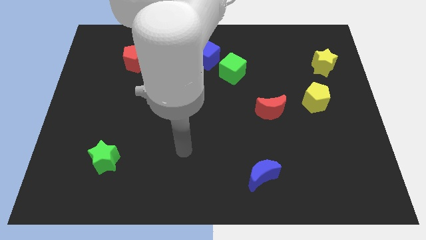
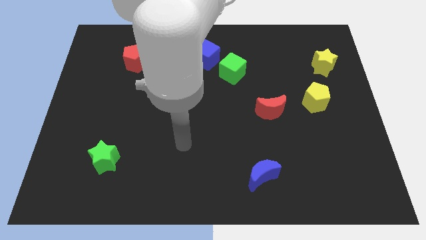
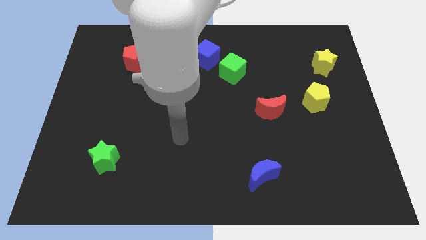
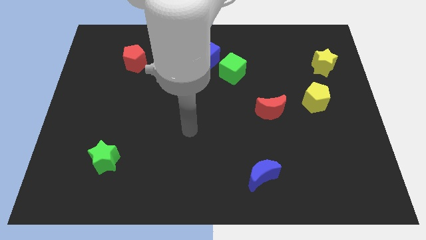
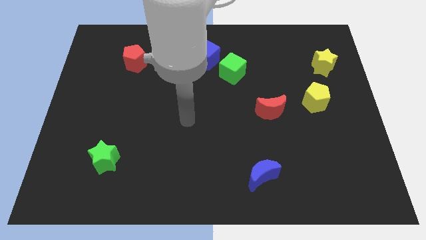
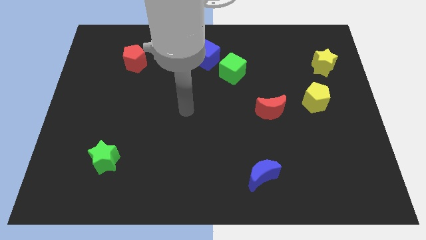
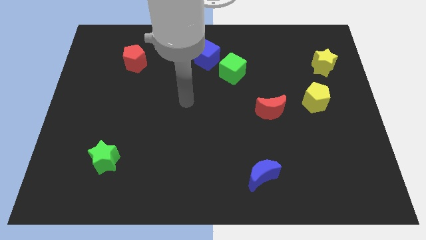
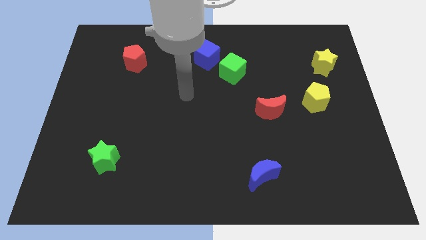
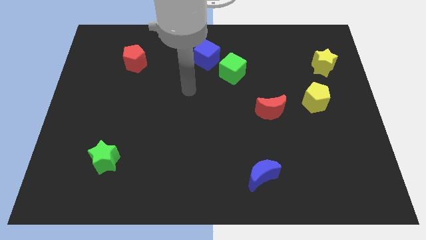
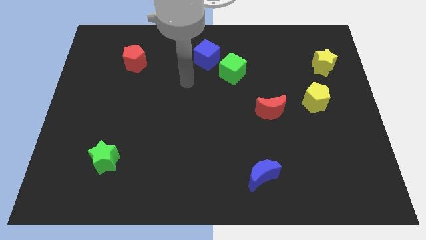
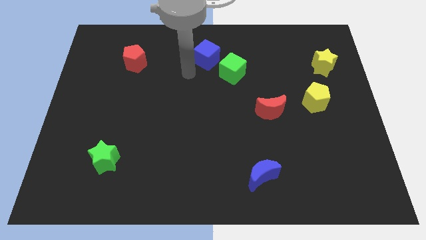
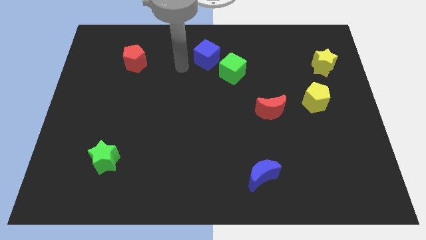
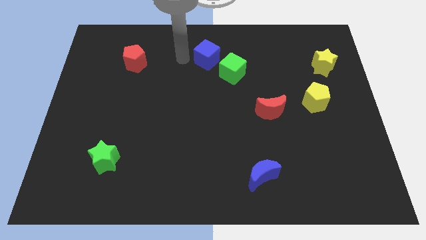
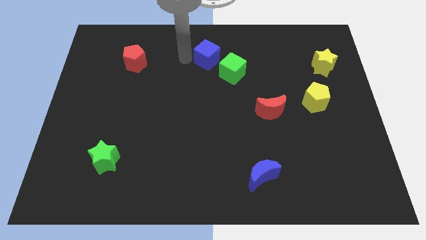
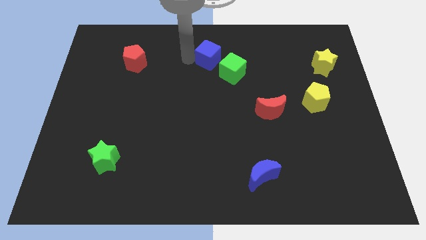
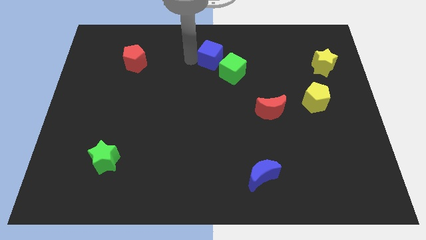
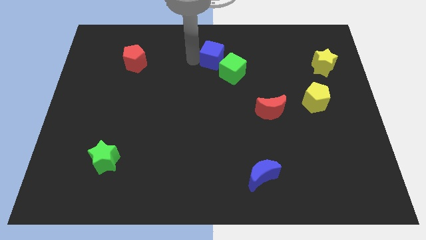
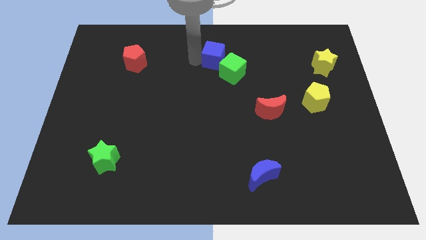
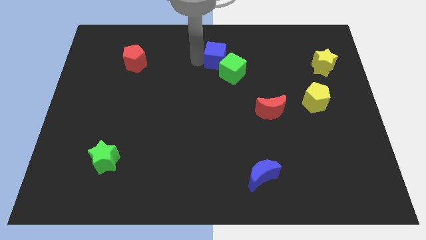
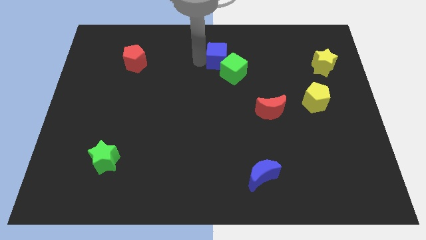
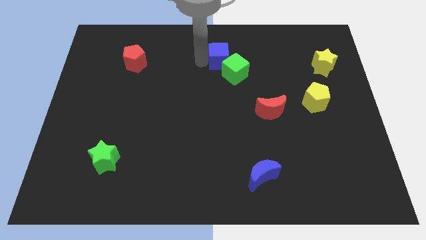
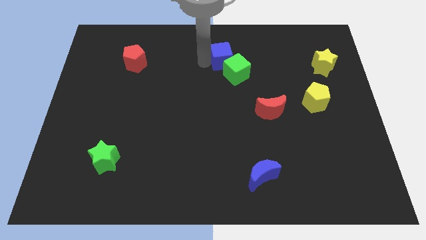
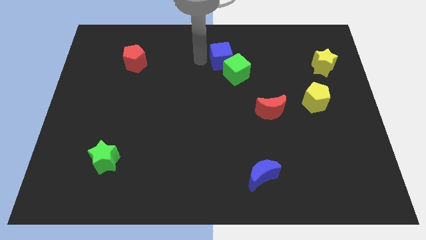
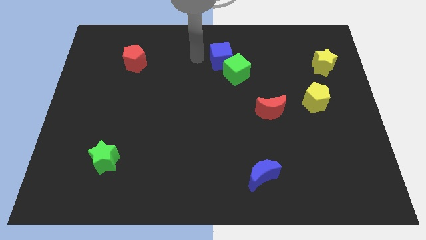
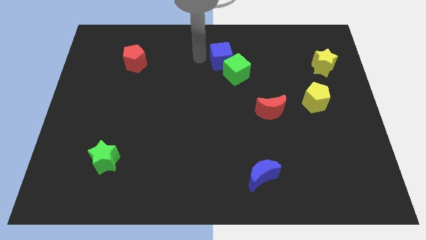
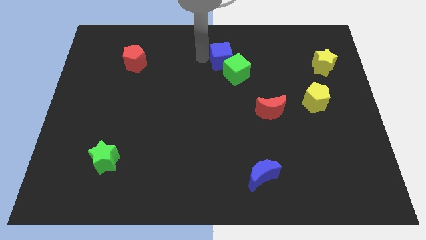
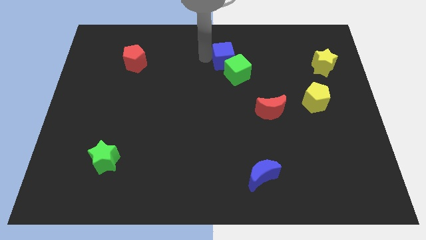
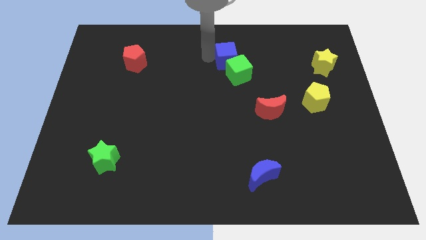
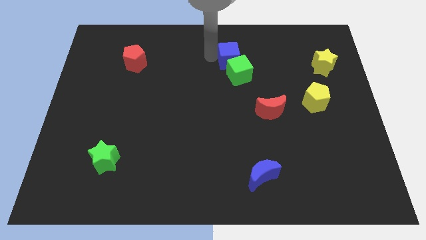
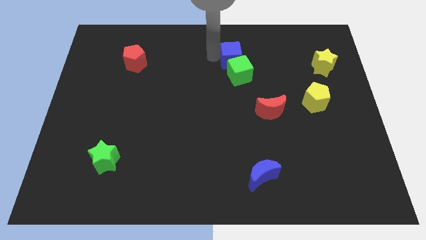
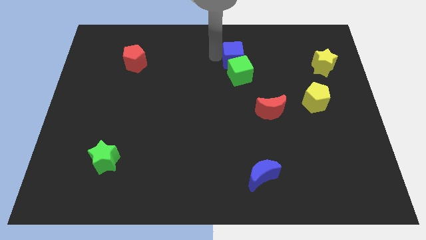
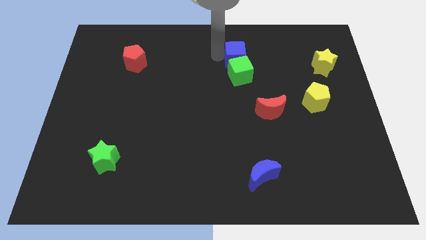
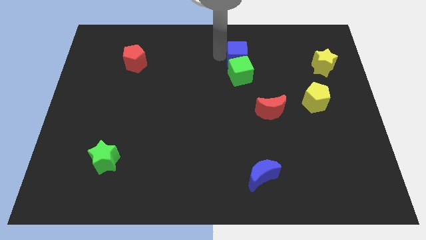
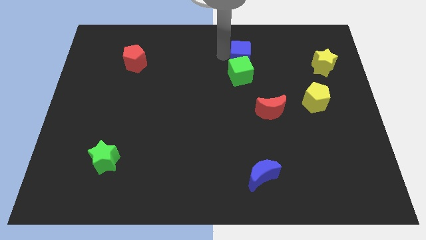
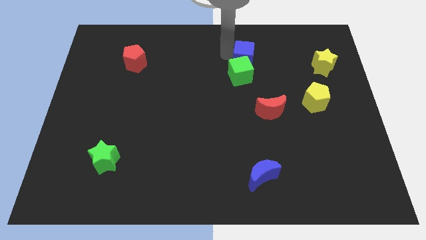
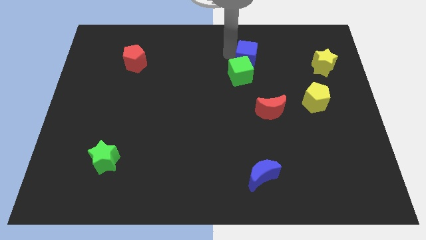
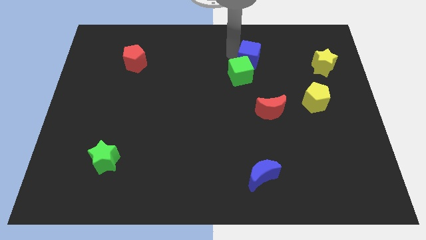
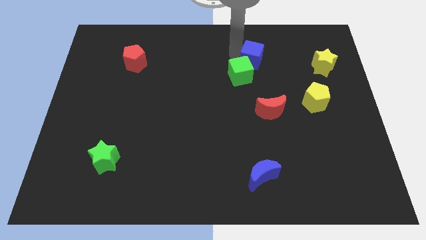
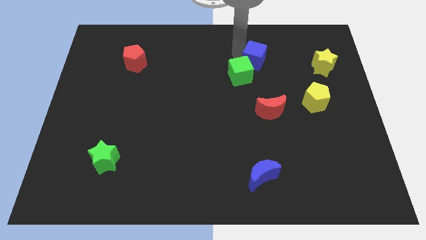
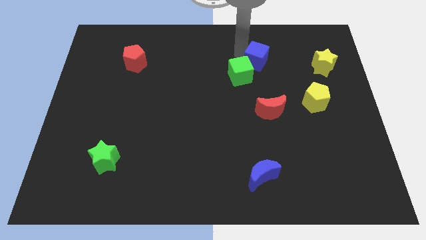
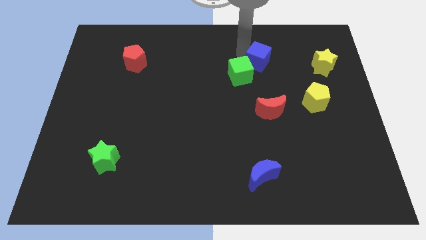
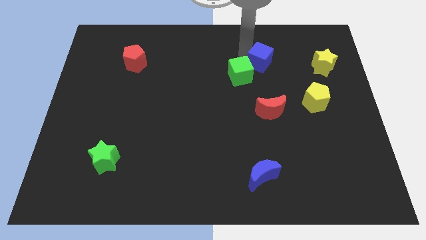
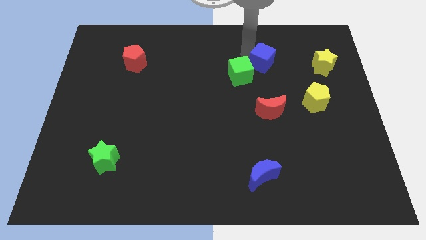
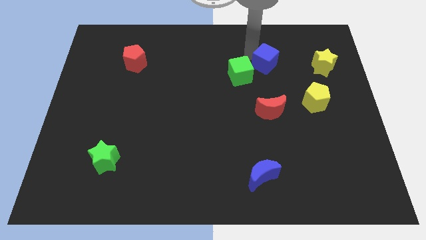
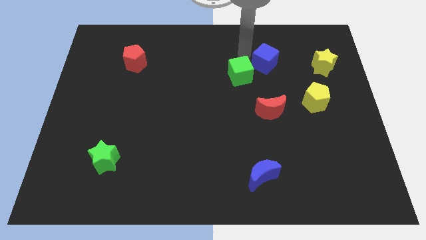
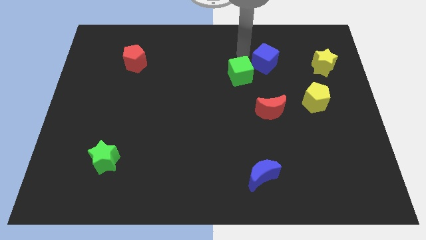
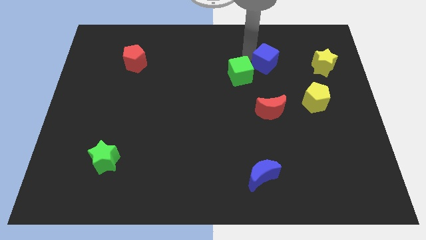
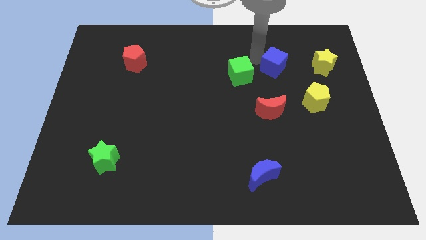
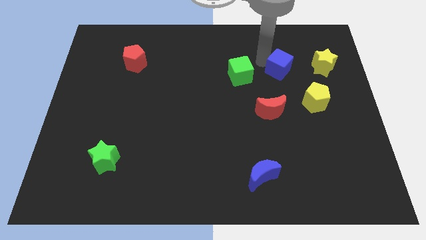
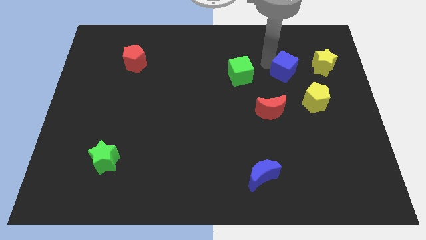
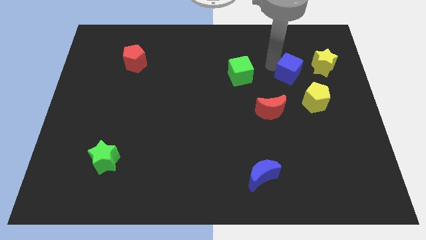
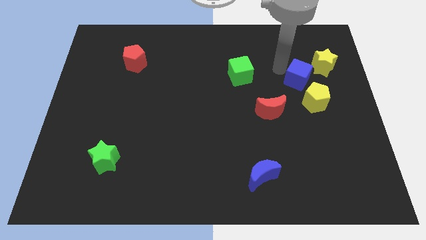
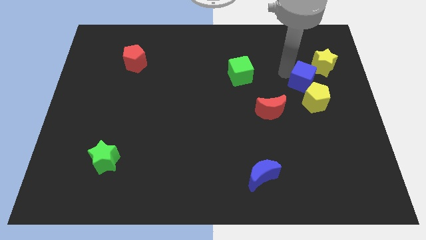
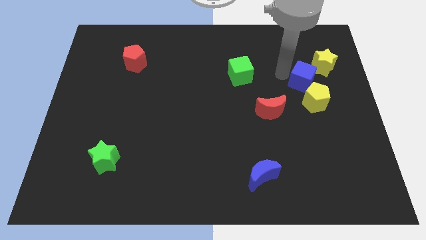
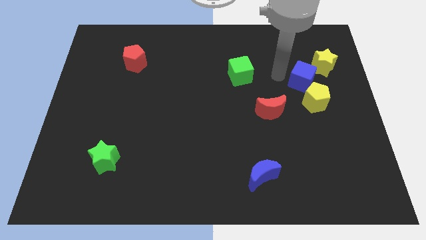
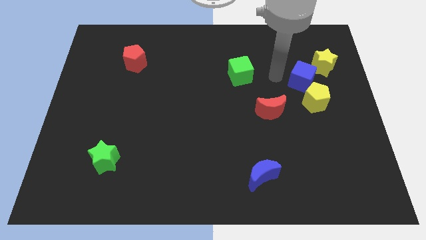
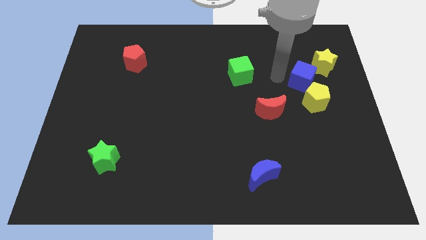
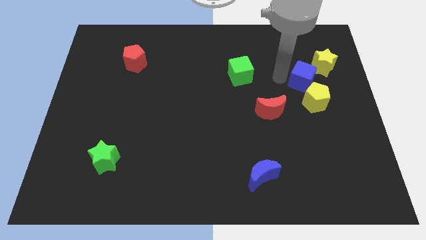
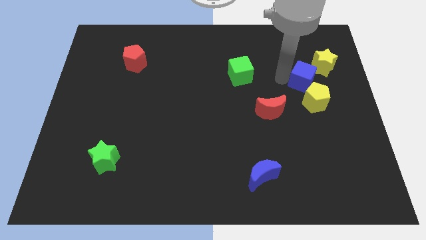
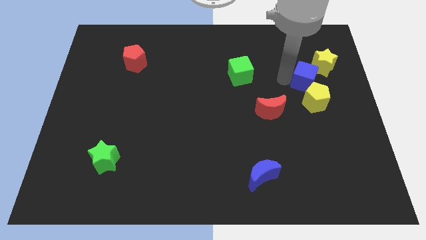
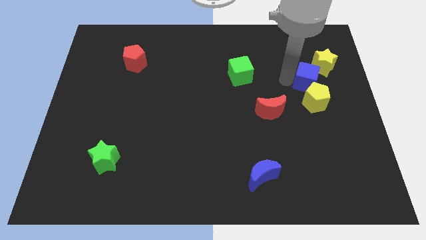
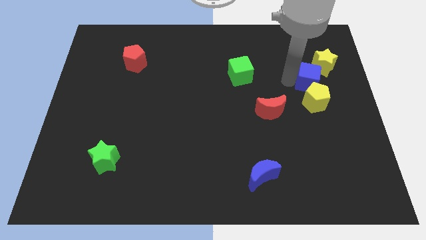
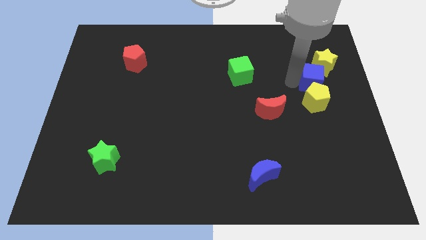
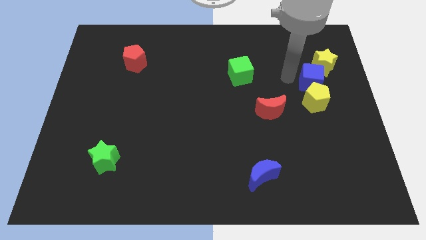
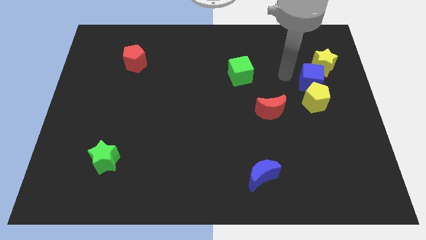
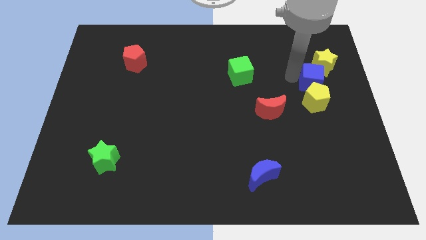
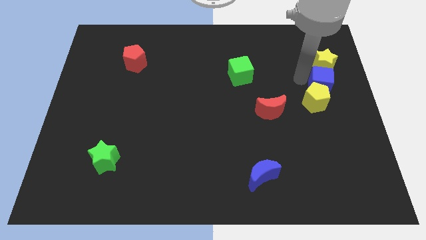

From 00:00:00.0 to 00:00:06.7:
slide the blue cube to the right side
